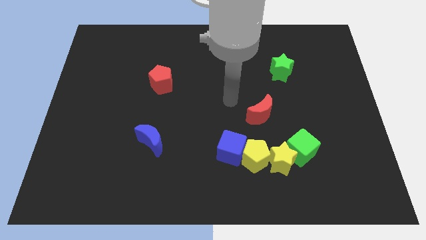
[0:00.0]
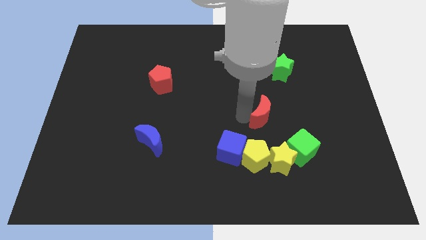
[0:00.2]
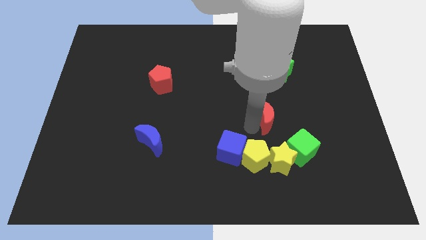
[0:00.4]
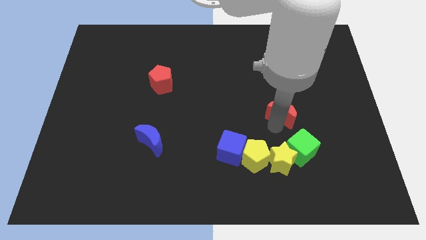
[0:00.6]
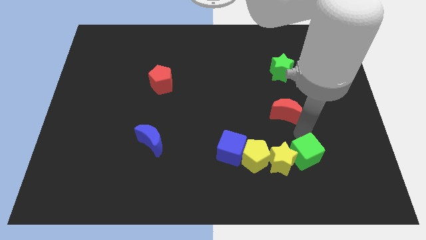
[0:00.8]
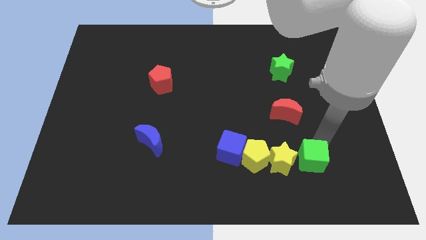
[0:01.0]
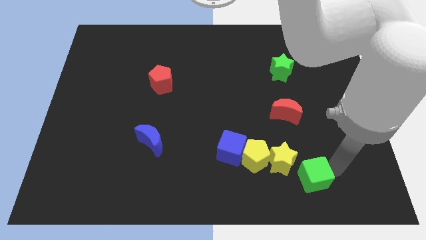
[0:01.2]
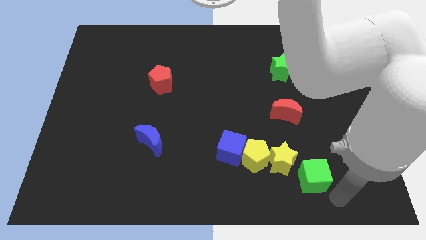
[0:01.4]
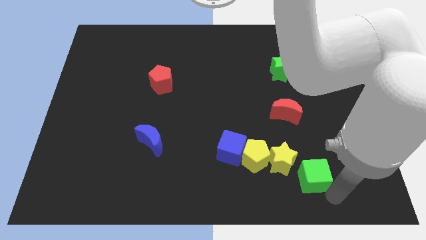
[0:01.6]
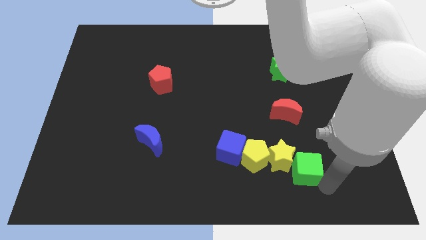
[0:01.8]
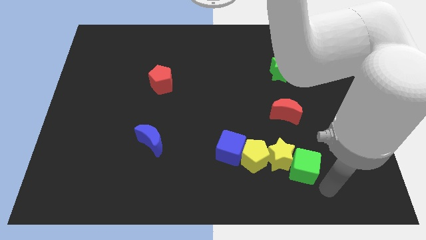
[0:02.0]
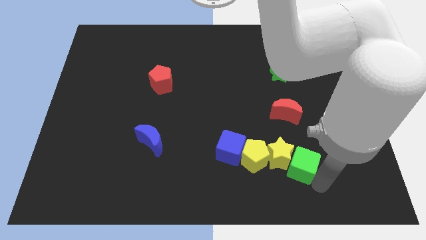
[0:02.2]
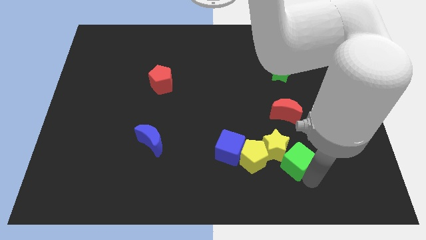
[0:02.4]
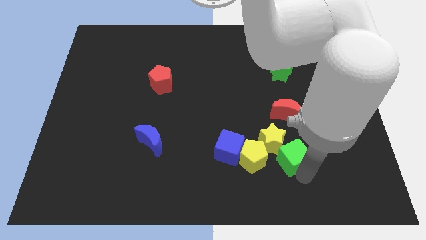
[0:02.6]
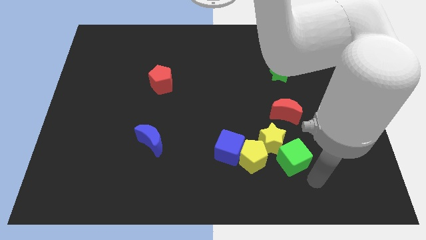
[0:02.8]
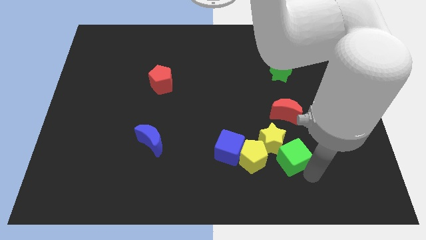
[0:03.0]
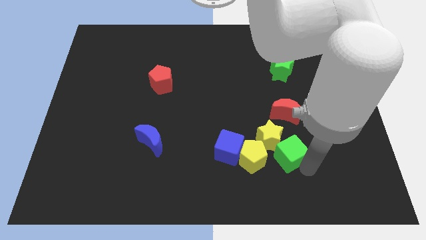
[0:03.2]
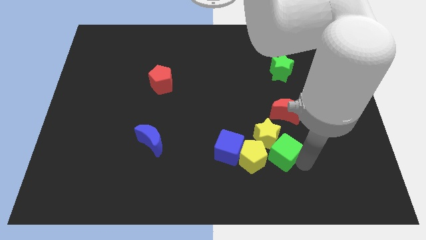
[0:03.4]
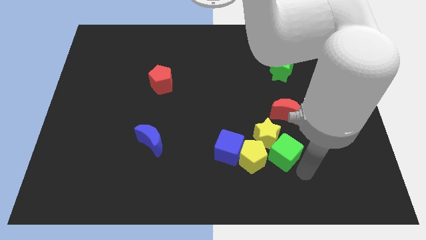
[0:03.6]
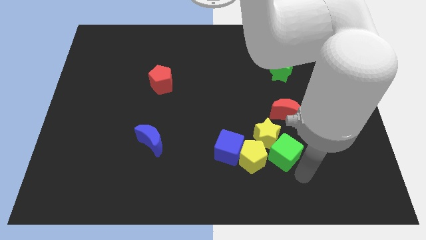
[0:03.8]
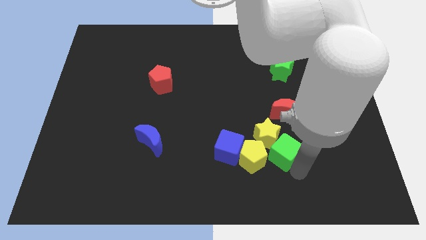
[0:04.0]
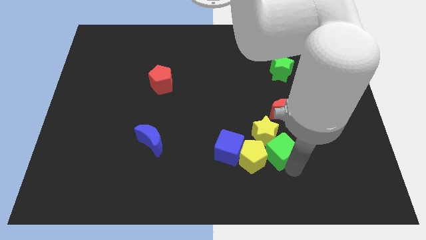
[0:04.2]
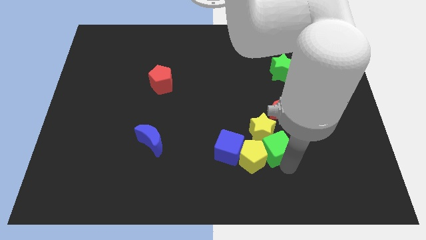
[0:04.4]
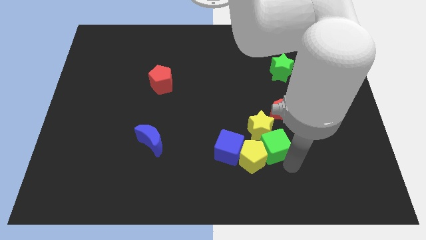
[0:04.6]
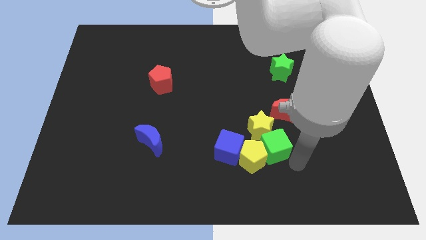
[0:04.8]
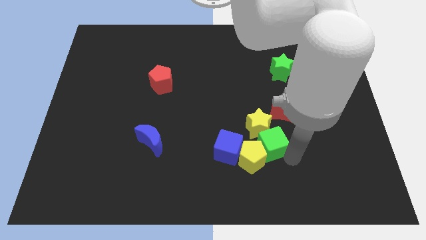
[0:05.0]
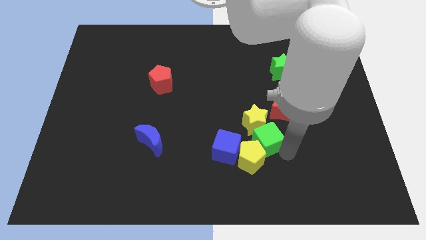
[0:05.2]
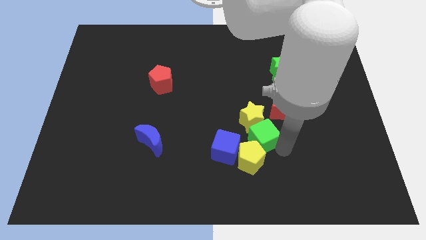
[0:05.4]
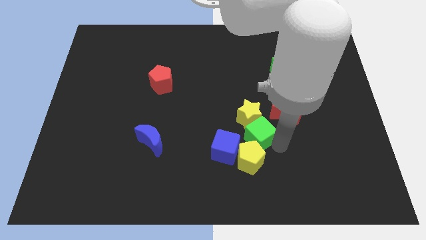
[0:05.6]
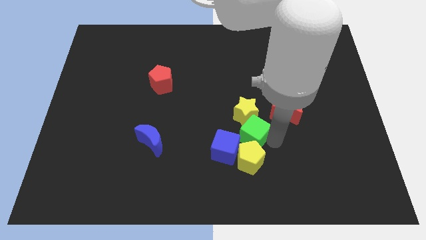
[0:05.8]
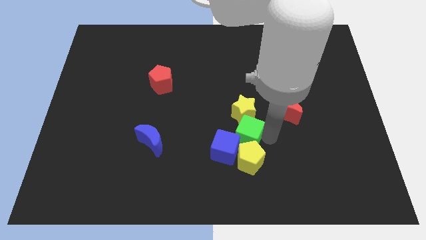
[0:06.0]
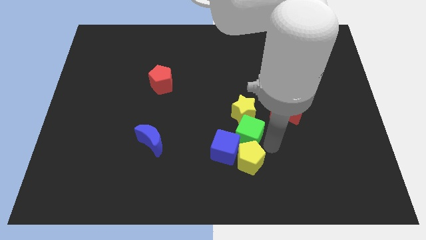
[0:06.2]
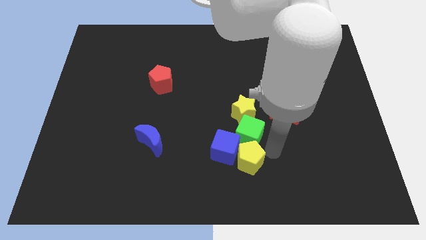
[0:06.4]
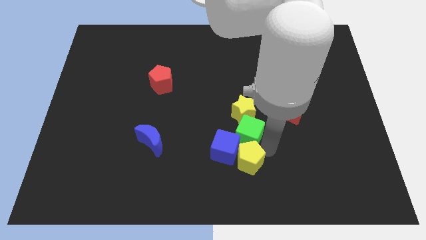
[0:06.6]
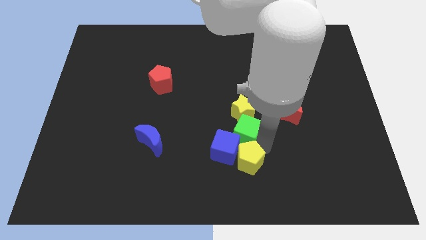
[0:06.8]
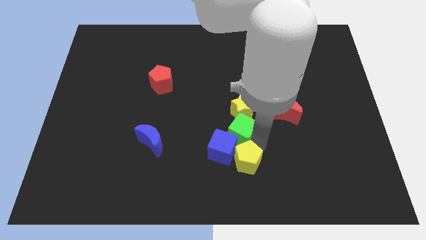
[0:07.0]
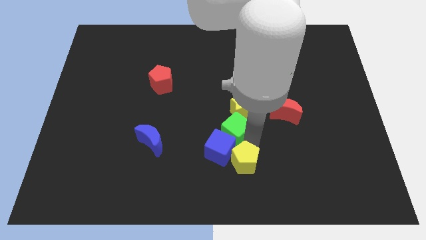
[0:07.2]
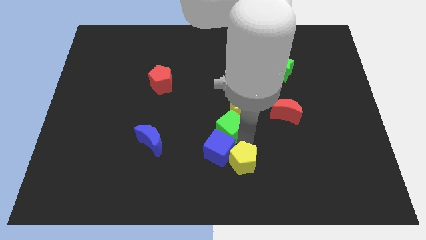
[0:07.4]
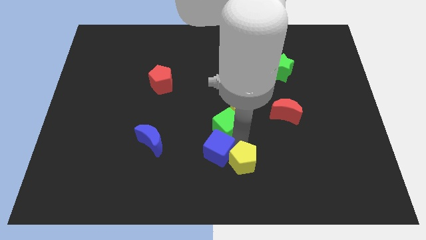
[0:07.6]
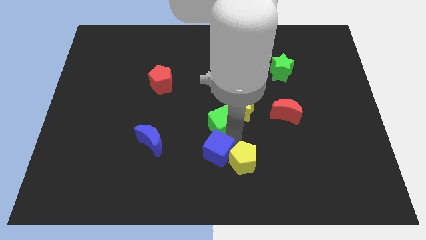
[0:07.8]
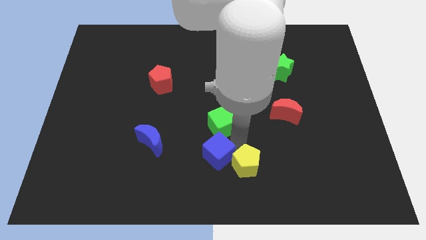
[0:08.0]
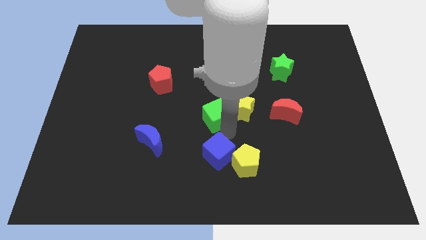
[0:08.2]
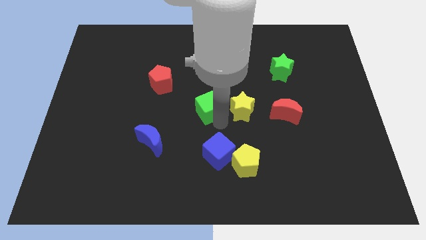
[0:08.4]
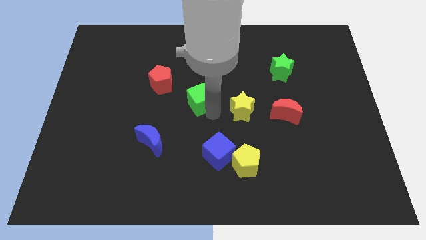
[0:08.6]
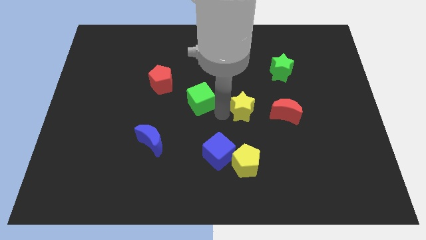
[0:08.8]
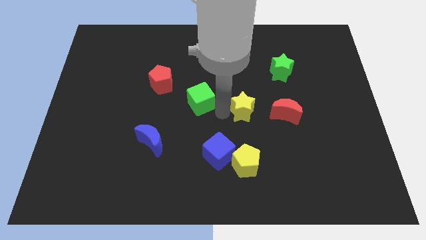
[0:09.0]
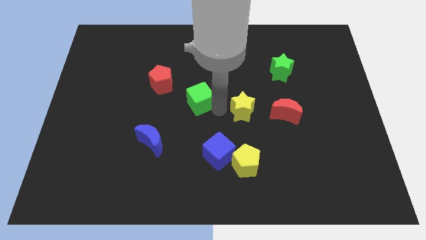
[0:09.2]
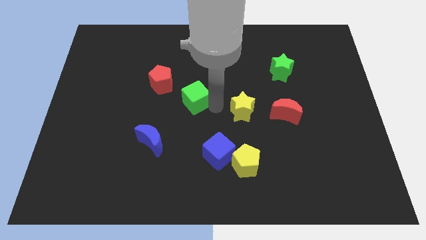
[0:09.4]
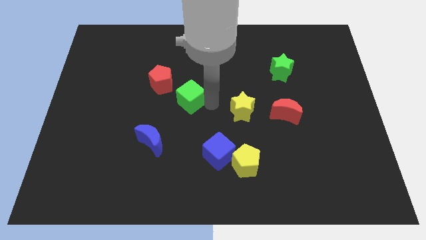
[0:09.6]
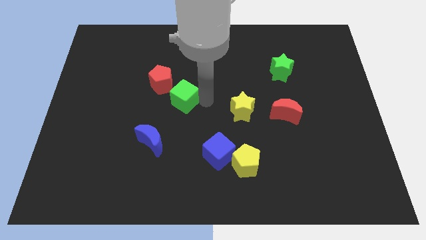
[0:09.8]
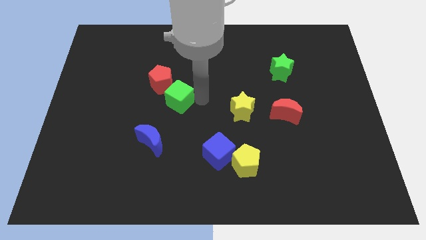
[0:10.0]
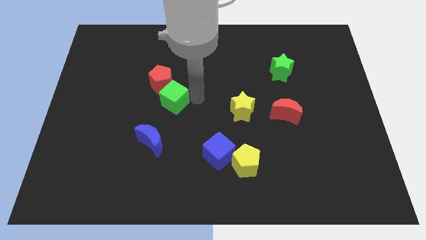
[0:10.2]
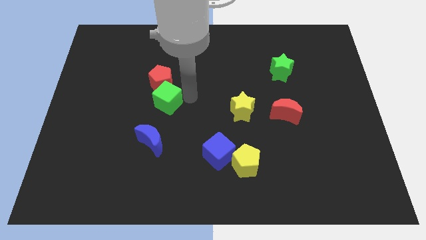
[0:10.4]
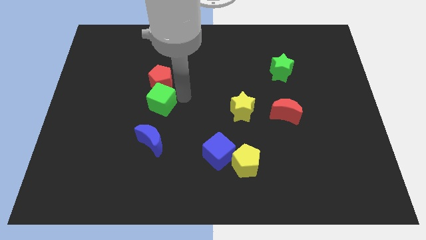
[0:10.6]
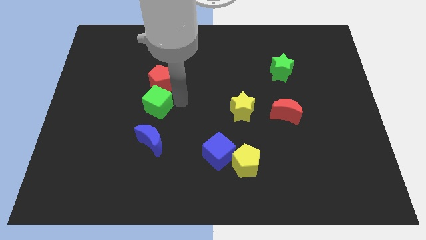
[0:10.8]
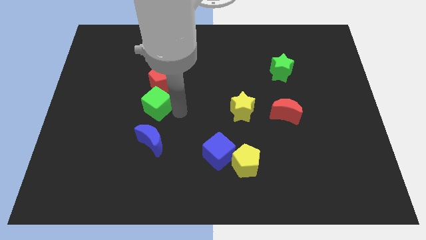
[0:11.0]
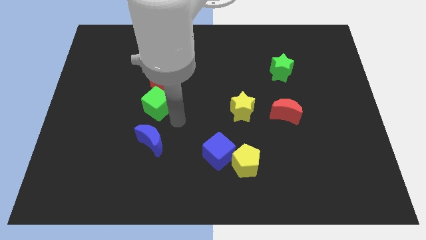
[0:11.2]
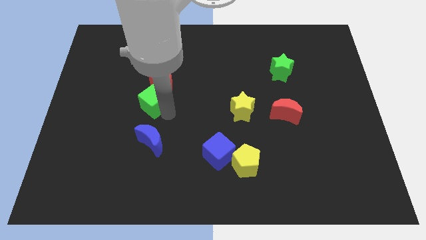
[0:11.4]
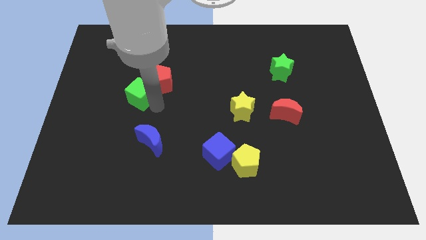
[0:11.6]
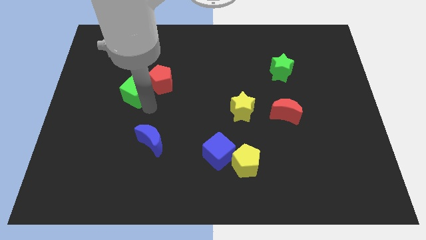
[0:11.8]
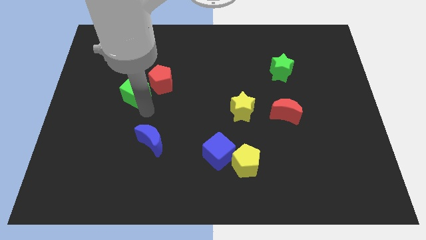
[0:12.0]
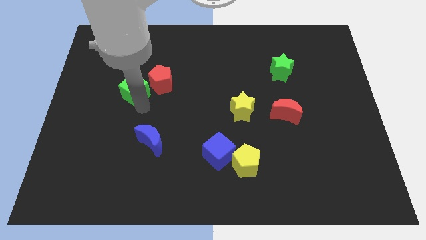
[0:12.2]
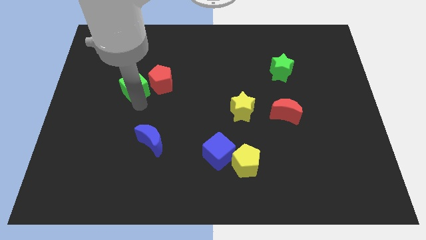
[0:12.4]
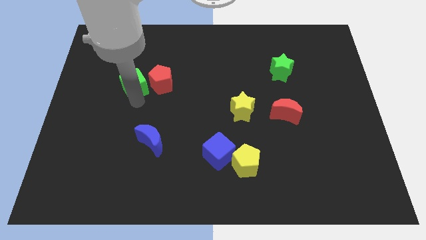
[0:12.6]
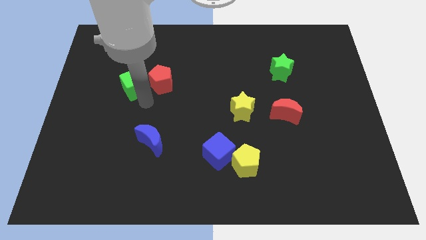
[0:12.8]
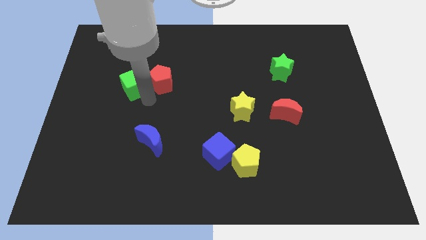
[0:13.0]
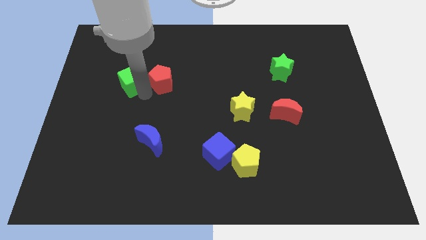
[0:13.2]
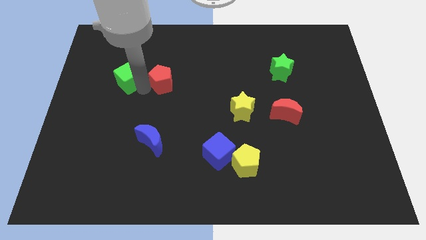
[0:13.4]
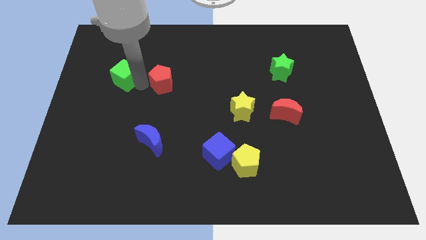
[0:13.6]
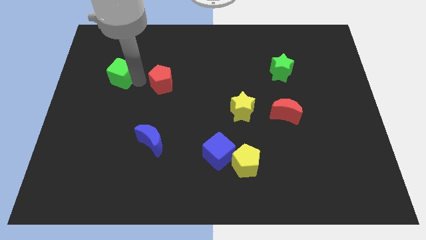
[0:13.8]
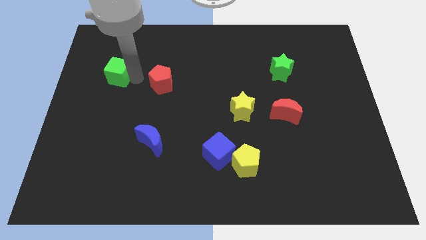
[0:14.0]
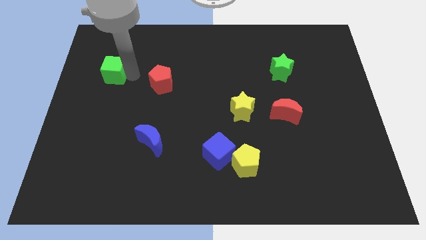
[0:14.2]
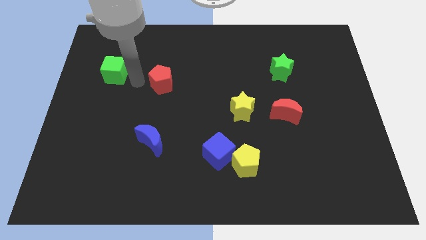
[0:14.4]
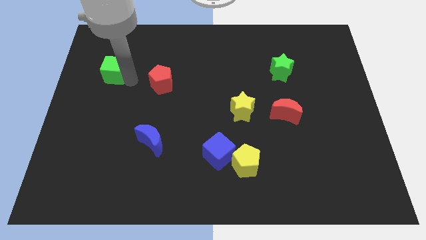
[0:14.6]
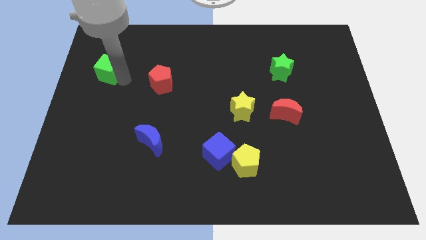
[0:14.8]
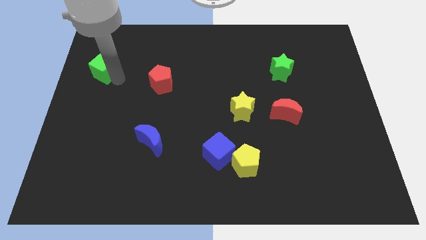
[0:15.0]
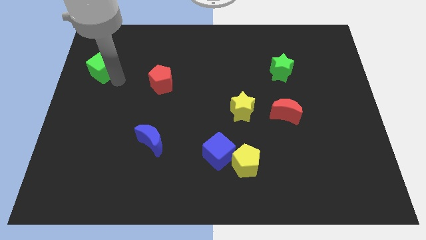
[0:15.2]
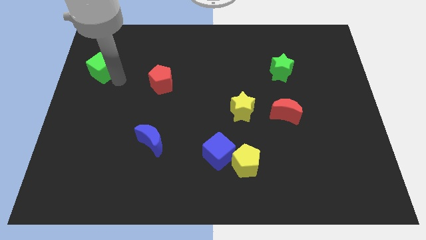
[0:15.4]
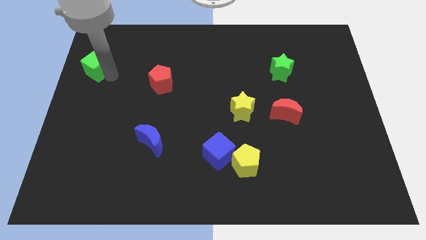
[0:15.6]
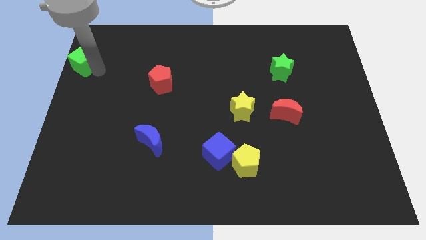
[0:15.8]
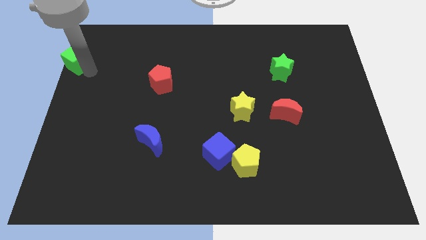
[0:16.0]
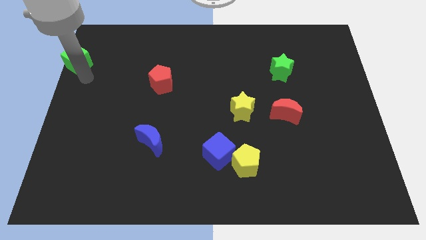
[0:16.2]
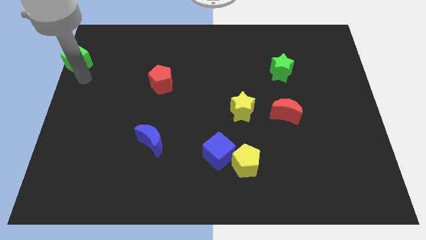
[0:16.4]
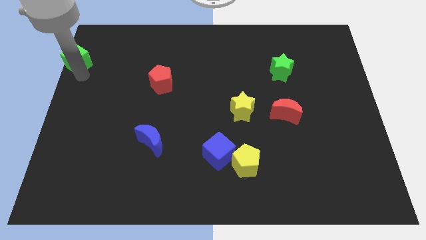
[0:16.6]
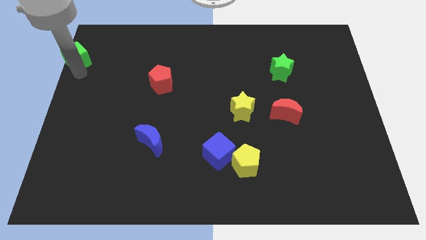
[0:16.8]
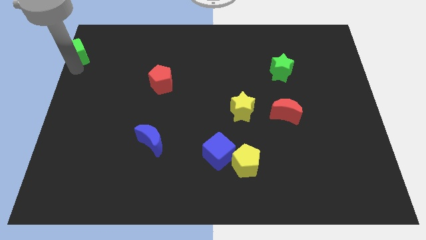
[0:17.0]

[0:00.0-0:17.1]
push the green cube to the top left corner
